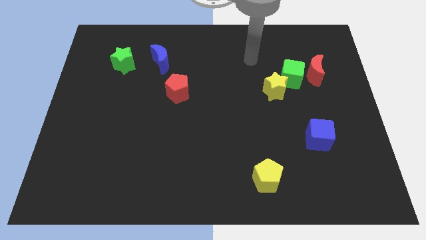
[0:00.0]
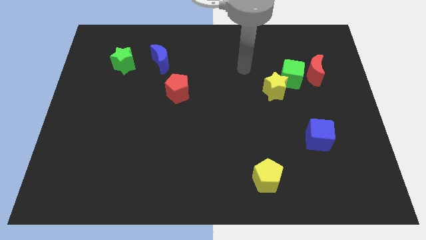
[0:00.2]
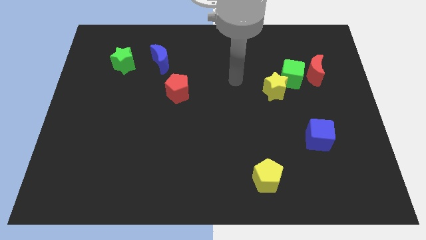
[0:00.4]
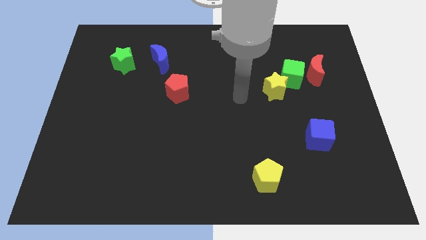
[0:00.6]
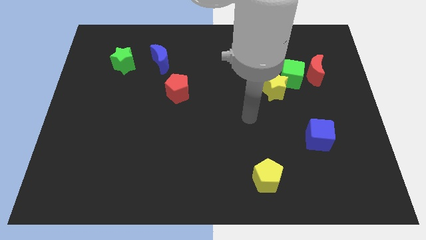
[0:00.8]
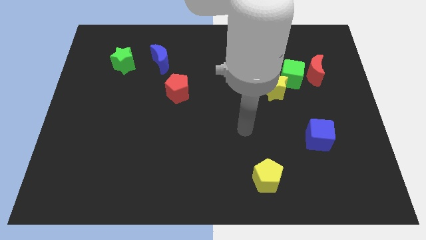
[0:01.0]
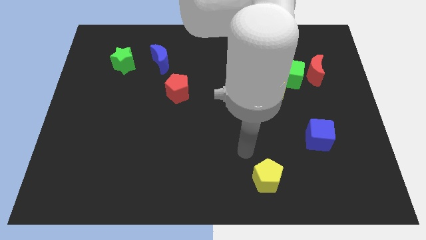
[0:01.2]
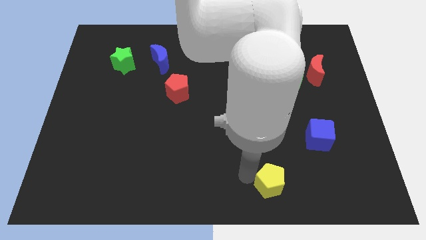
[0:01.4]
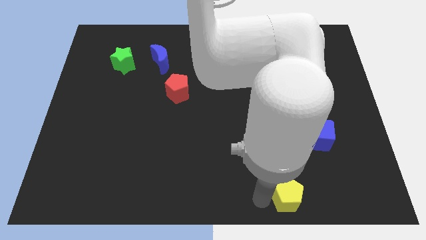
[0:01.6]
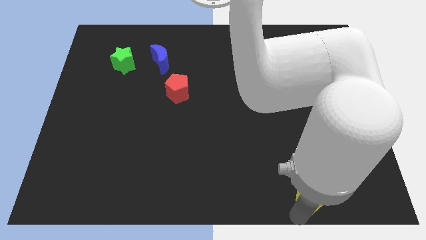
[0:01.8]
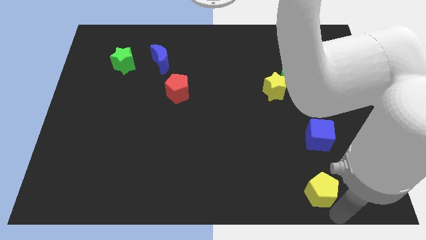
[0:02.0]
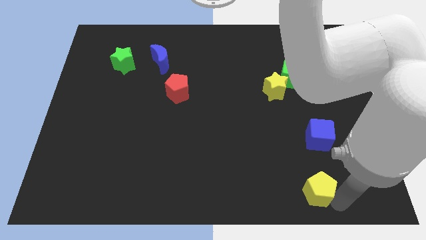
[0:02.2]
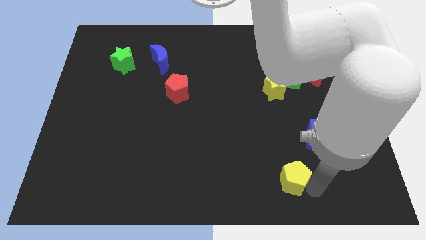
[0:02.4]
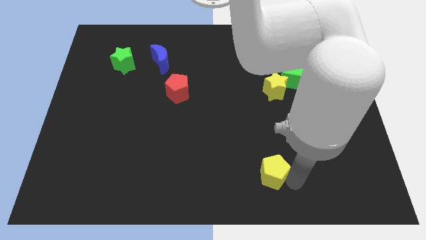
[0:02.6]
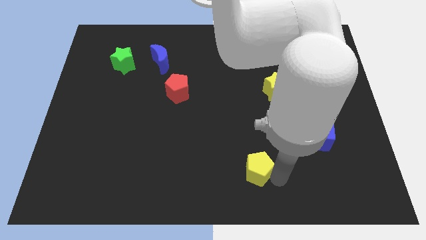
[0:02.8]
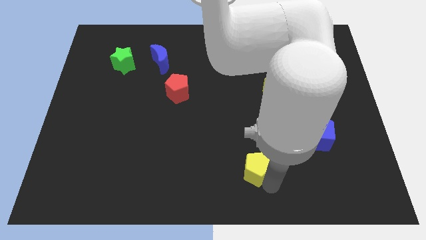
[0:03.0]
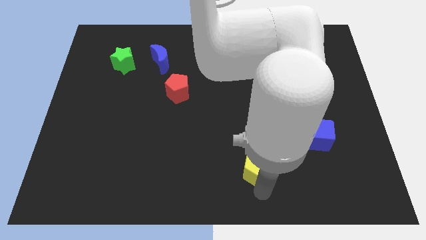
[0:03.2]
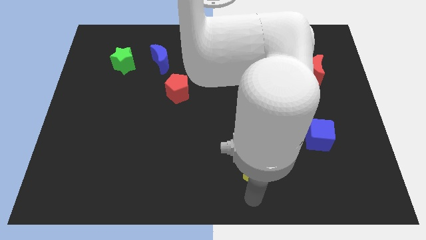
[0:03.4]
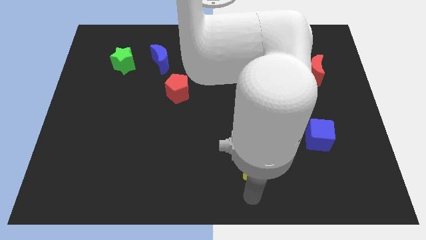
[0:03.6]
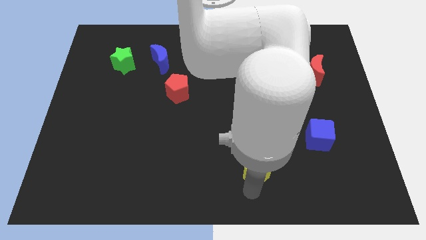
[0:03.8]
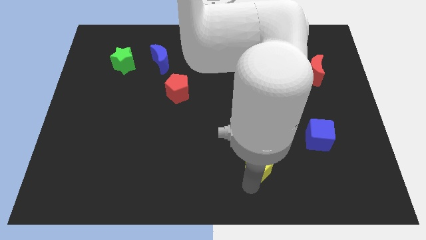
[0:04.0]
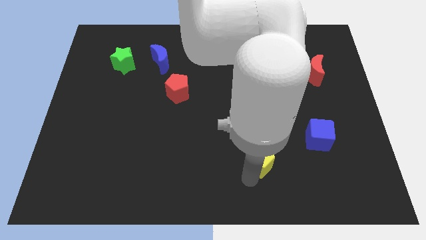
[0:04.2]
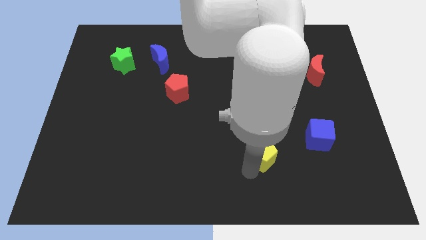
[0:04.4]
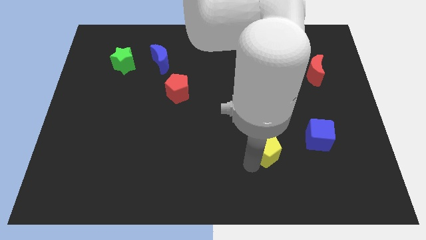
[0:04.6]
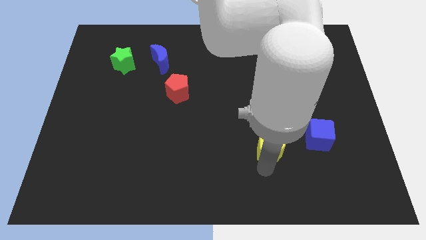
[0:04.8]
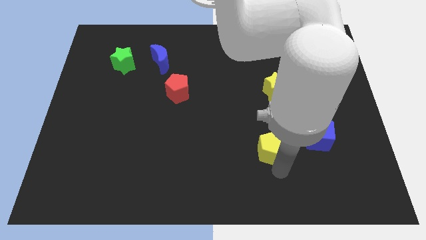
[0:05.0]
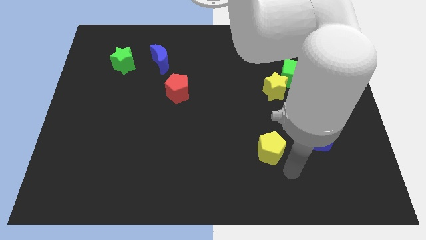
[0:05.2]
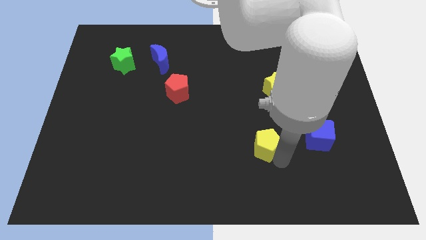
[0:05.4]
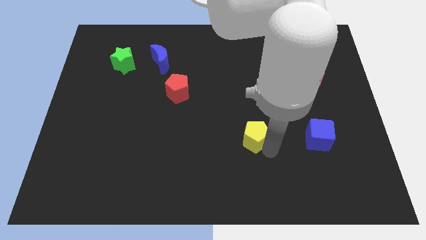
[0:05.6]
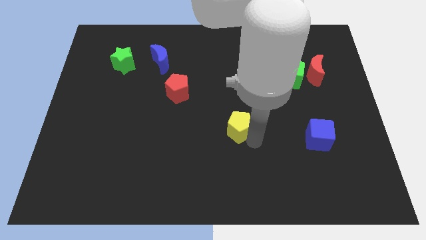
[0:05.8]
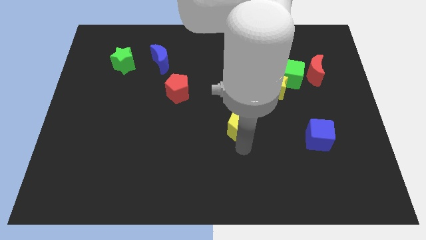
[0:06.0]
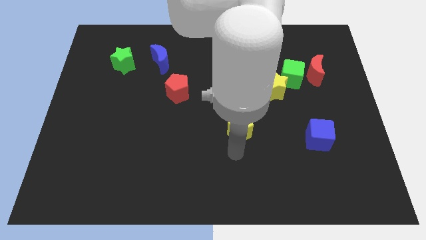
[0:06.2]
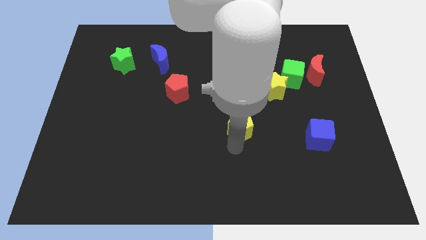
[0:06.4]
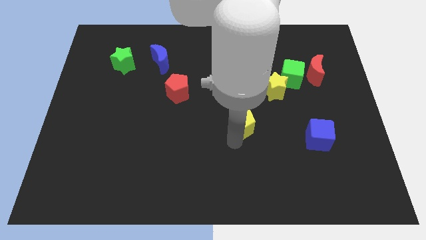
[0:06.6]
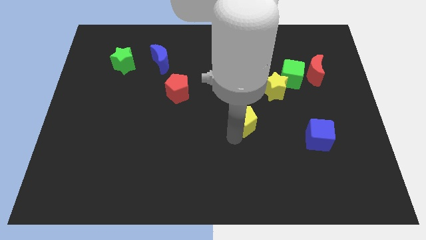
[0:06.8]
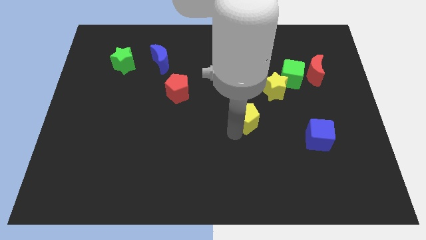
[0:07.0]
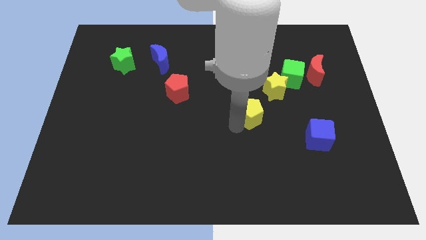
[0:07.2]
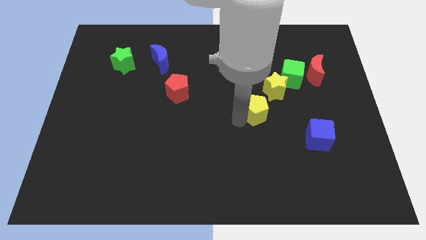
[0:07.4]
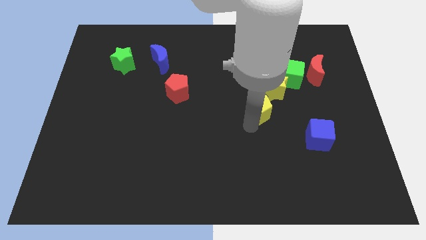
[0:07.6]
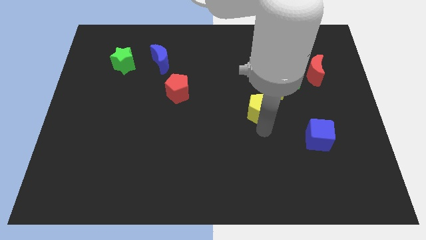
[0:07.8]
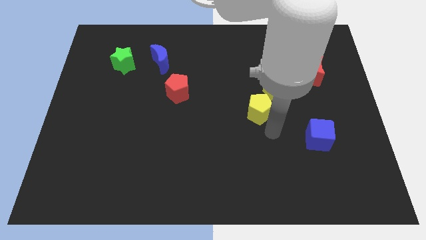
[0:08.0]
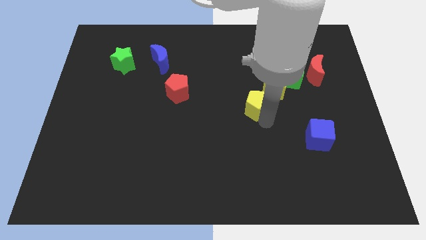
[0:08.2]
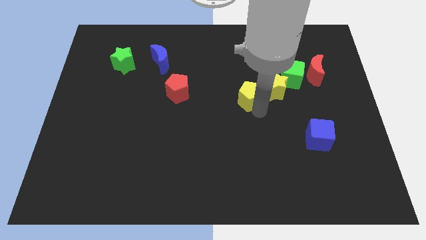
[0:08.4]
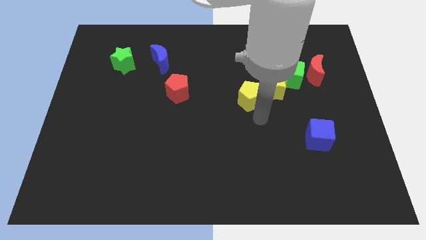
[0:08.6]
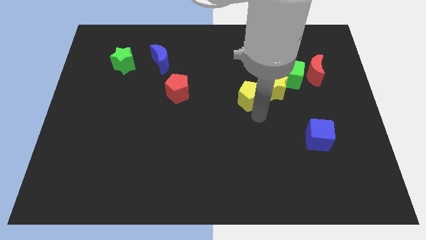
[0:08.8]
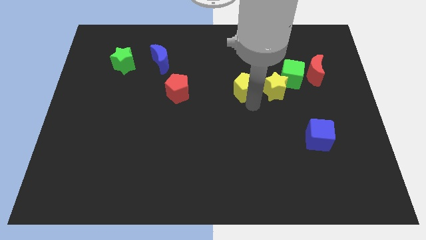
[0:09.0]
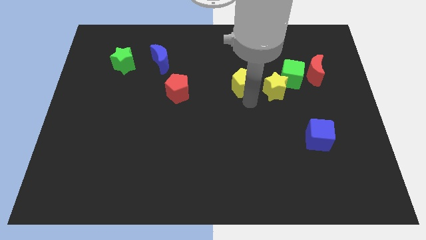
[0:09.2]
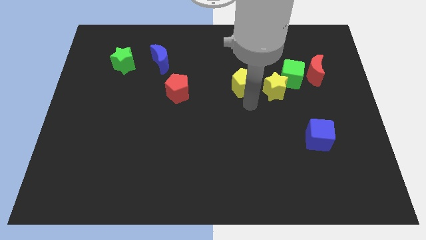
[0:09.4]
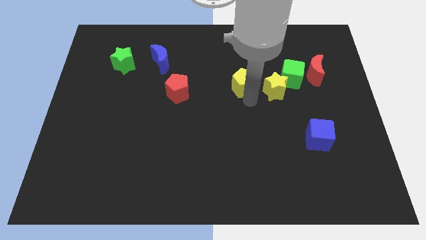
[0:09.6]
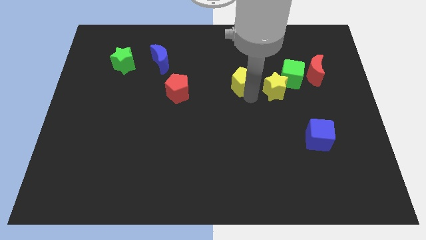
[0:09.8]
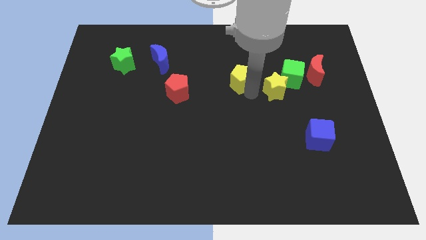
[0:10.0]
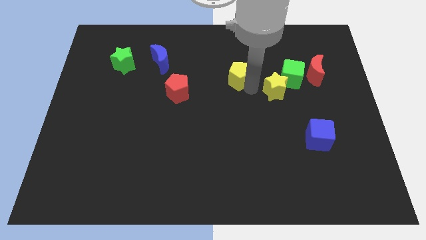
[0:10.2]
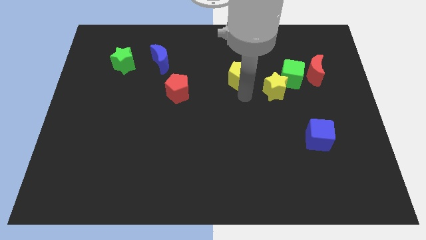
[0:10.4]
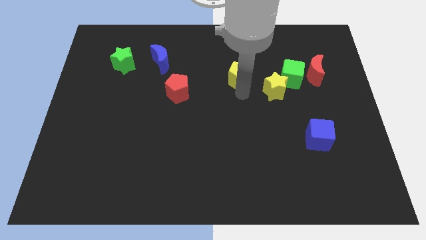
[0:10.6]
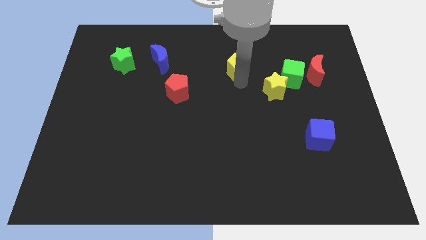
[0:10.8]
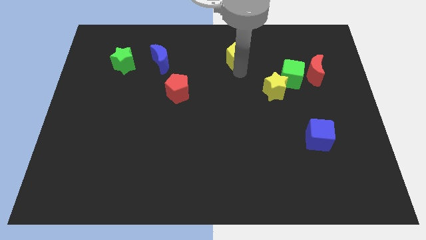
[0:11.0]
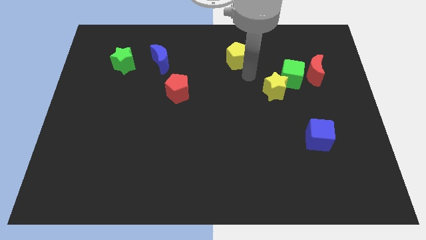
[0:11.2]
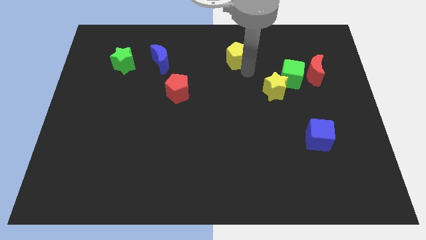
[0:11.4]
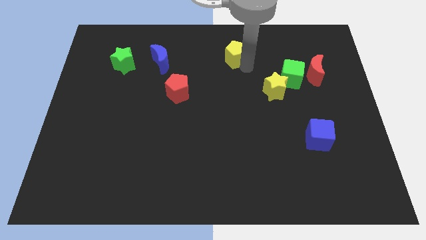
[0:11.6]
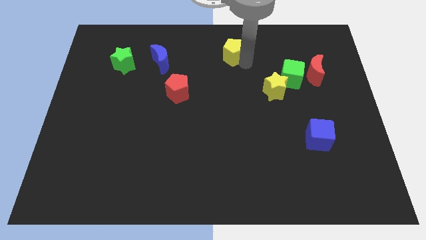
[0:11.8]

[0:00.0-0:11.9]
slide the yellow pentagon to the top

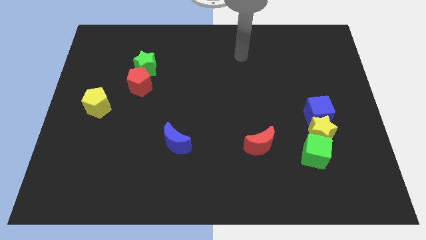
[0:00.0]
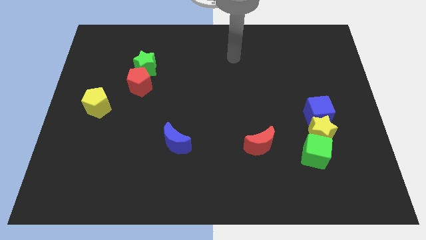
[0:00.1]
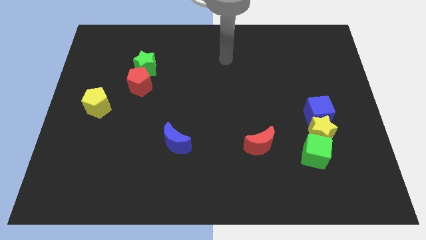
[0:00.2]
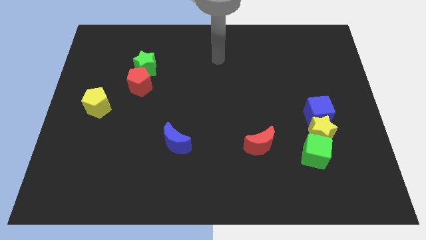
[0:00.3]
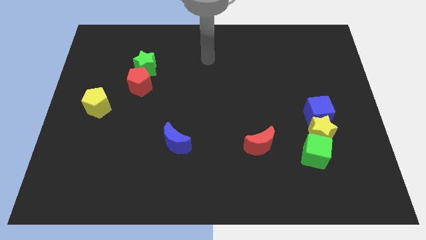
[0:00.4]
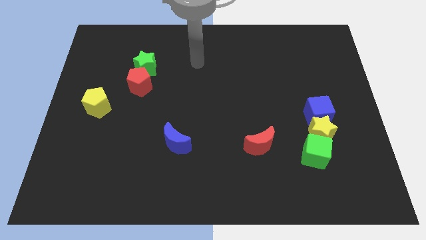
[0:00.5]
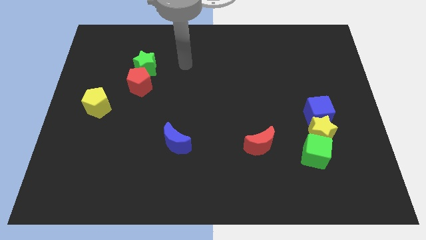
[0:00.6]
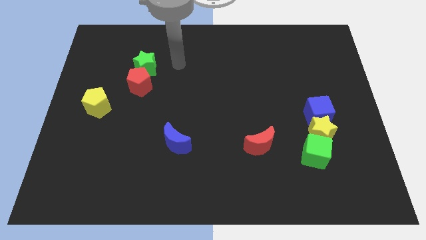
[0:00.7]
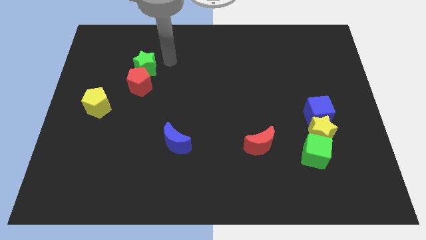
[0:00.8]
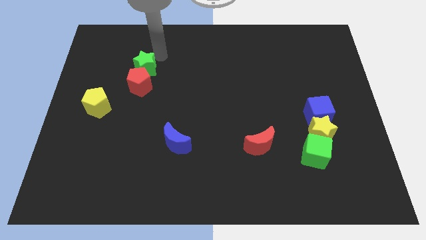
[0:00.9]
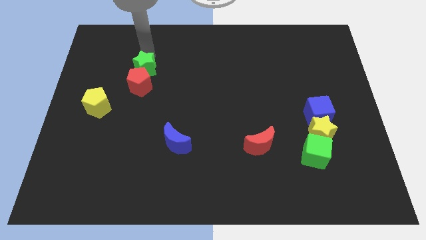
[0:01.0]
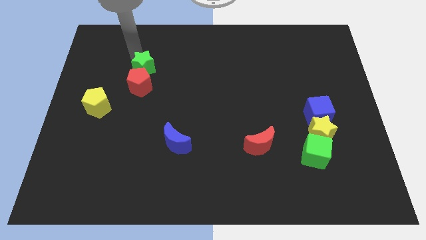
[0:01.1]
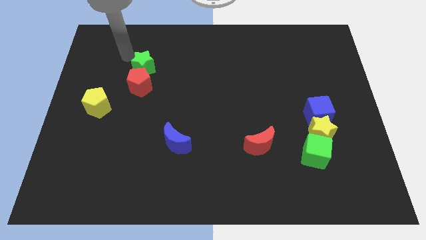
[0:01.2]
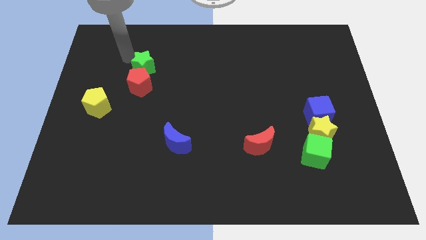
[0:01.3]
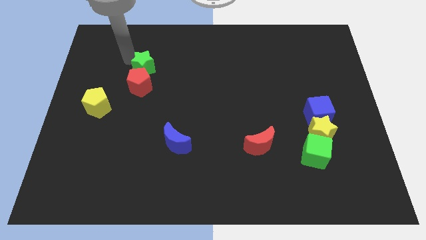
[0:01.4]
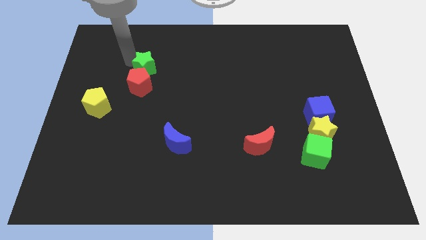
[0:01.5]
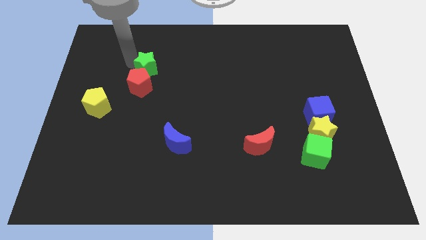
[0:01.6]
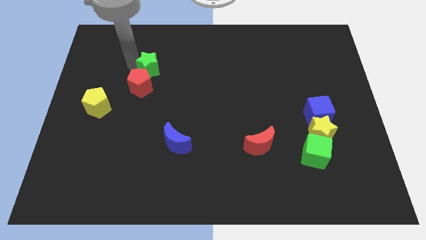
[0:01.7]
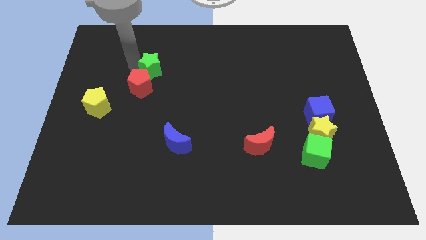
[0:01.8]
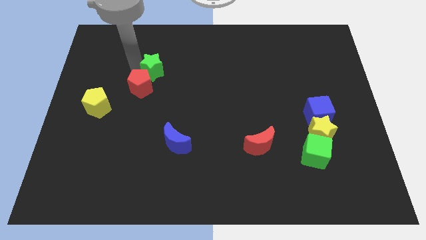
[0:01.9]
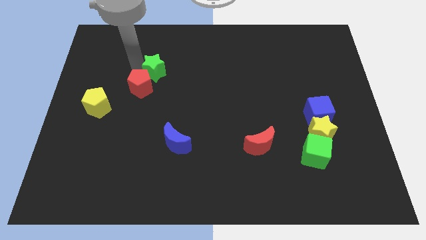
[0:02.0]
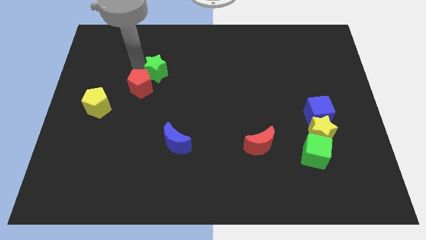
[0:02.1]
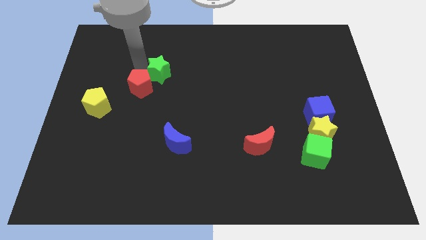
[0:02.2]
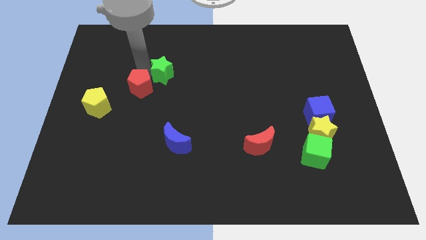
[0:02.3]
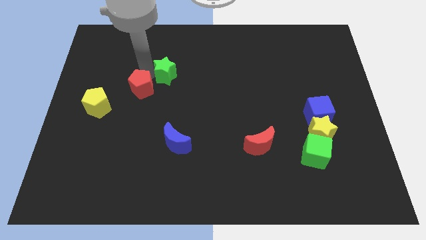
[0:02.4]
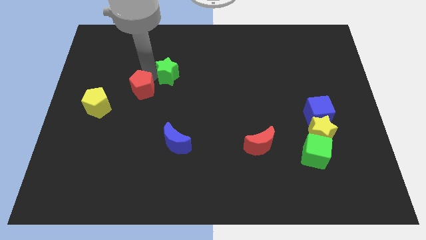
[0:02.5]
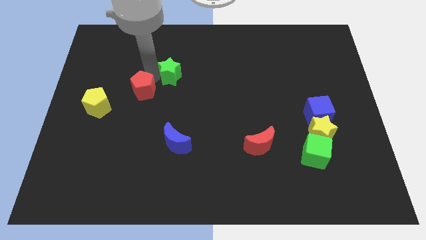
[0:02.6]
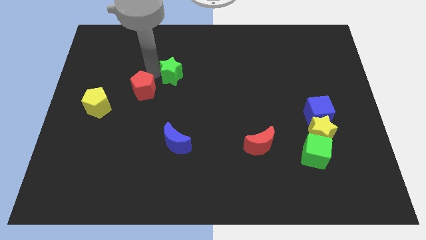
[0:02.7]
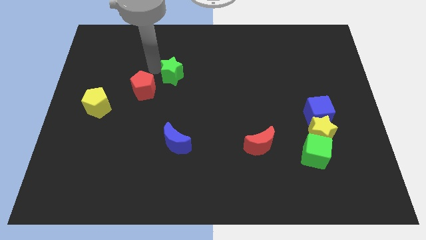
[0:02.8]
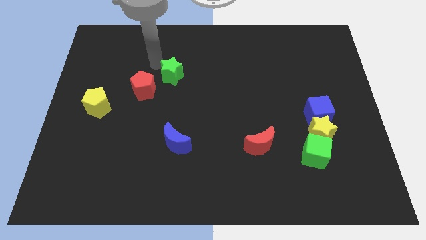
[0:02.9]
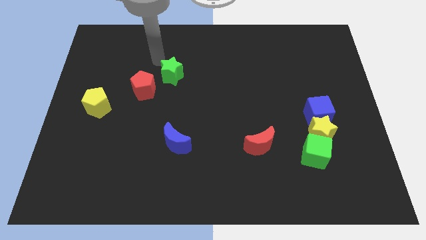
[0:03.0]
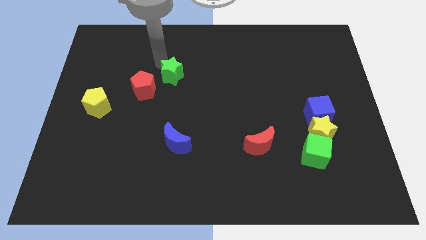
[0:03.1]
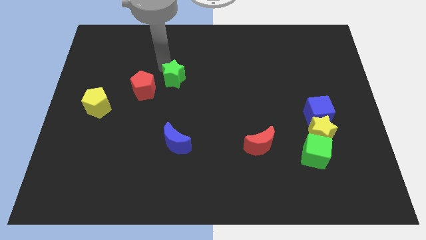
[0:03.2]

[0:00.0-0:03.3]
push the green star to the middle of the board
